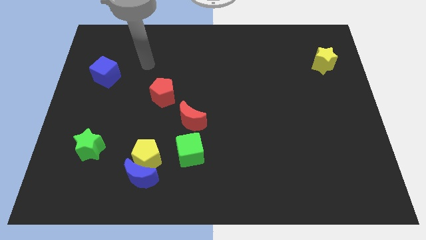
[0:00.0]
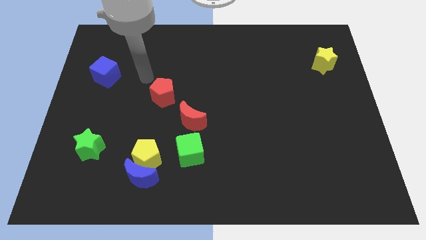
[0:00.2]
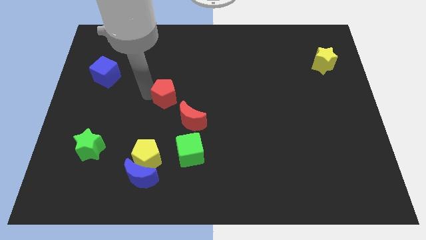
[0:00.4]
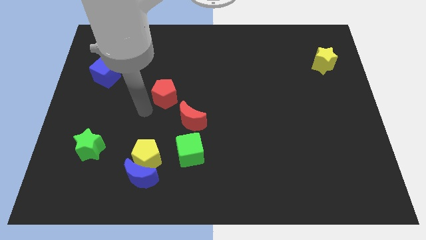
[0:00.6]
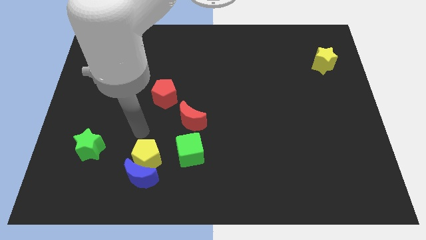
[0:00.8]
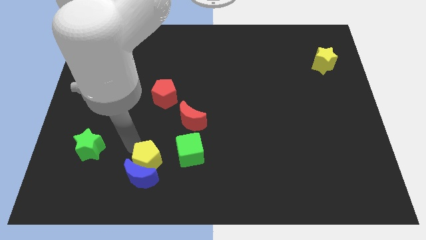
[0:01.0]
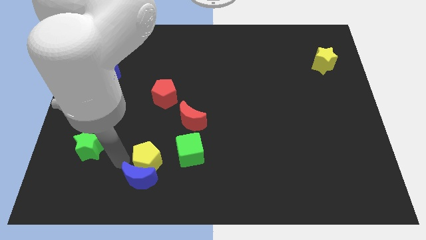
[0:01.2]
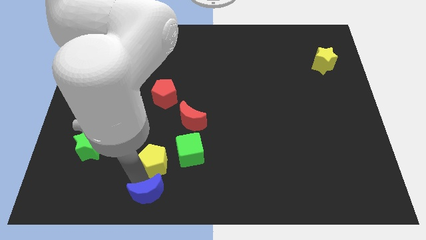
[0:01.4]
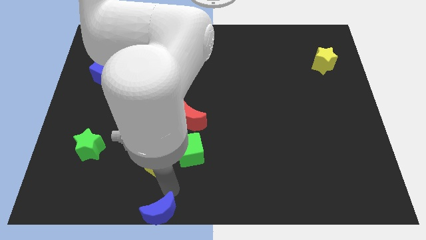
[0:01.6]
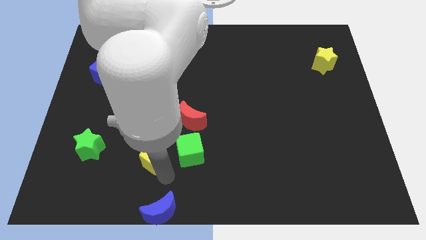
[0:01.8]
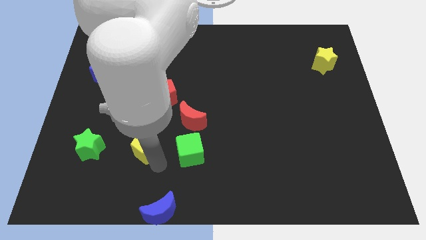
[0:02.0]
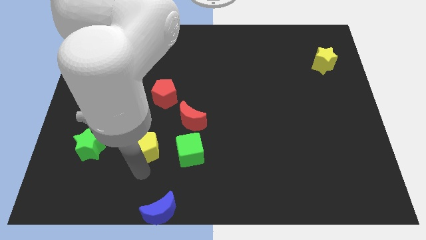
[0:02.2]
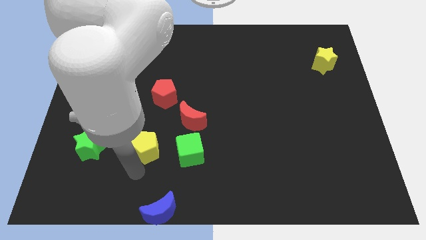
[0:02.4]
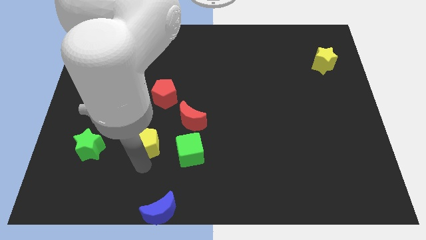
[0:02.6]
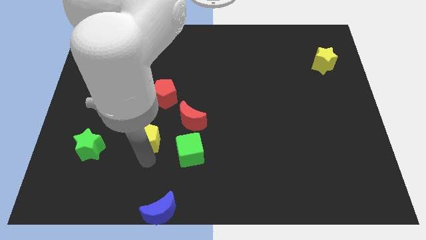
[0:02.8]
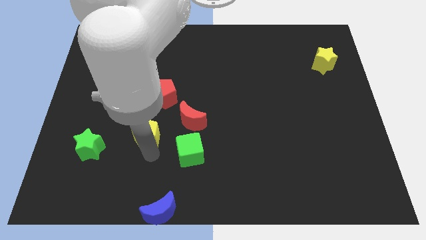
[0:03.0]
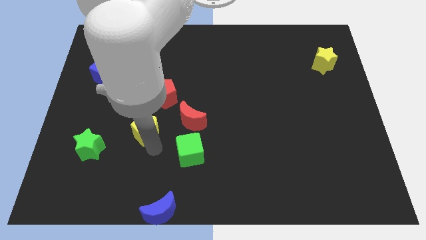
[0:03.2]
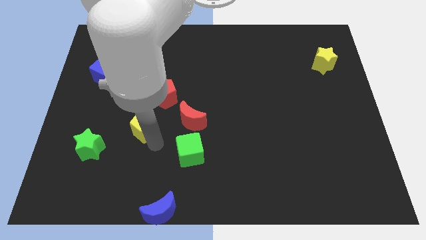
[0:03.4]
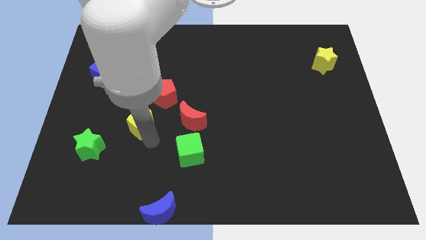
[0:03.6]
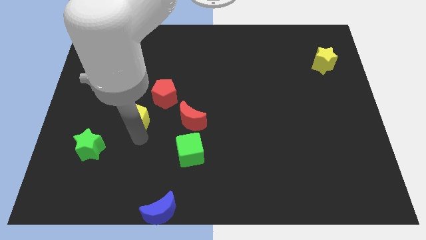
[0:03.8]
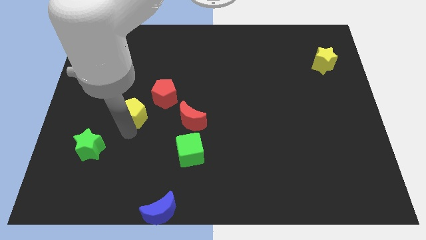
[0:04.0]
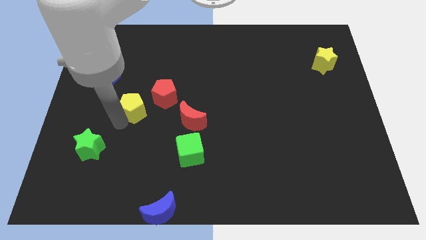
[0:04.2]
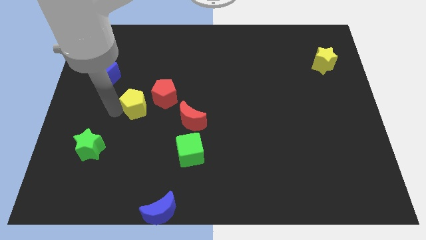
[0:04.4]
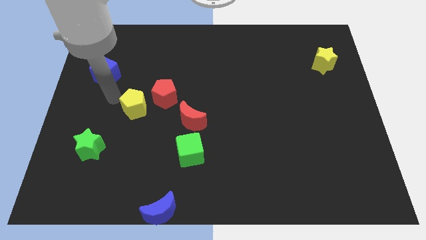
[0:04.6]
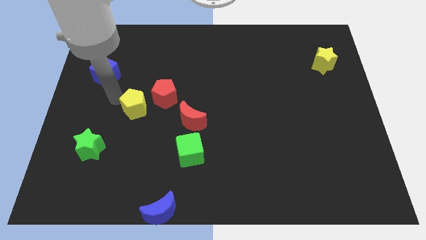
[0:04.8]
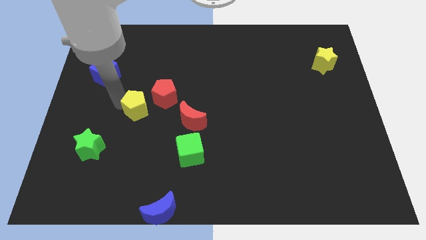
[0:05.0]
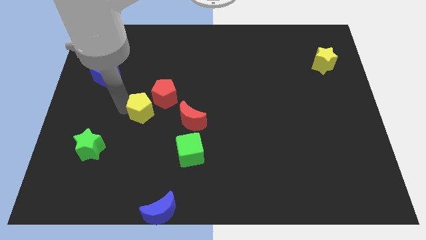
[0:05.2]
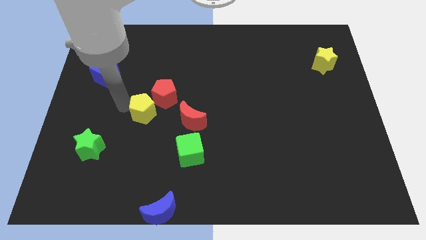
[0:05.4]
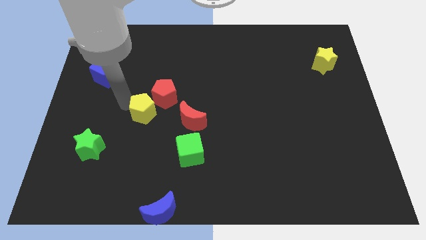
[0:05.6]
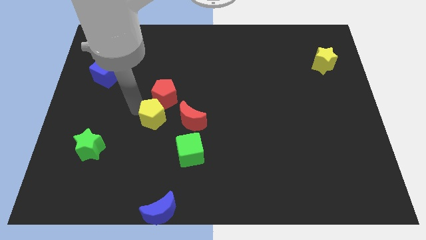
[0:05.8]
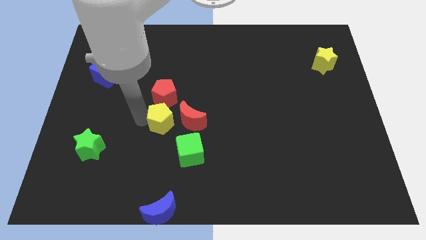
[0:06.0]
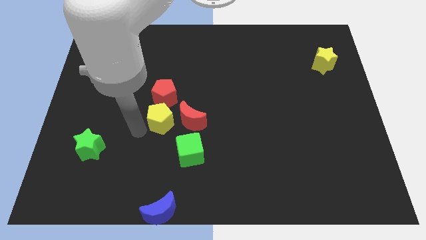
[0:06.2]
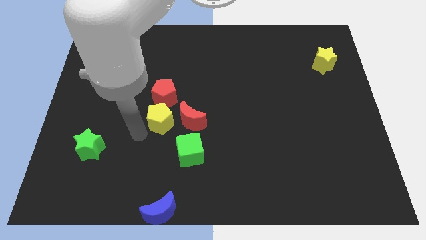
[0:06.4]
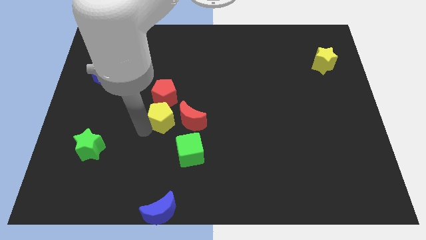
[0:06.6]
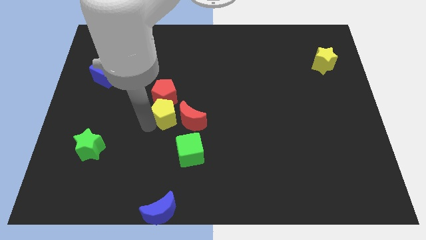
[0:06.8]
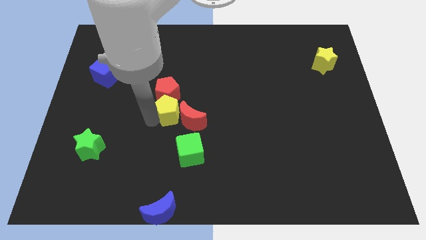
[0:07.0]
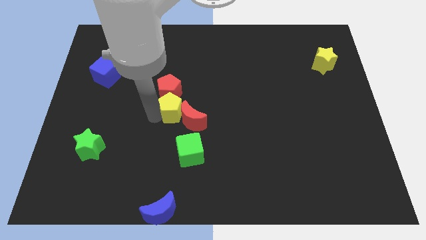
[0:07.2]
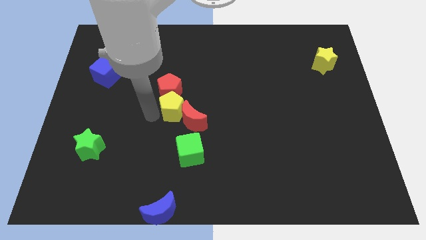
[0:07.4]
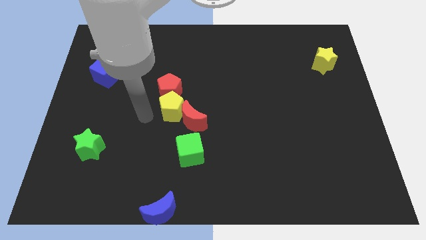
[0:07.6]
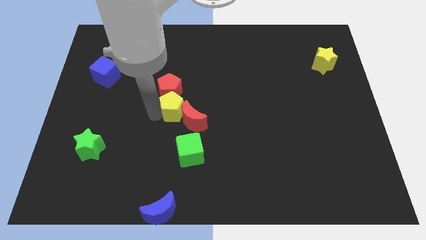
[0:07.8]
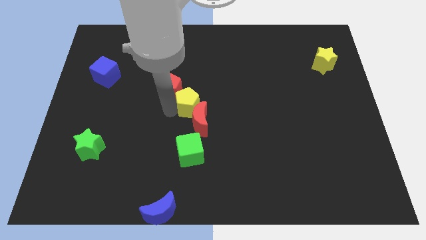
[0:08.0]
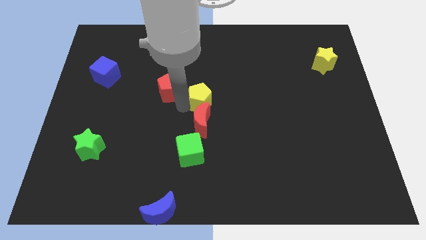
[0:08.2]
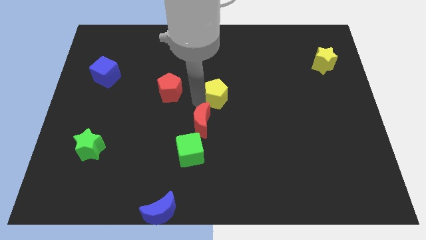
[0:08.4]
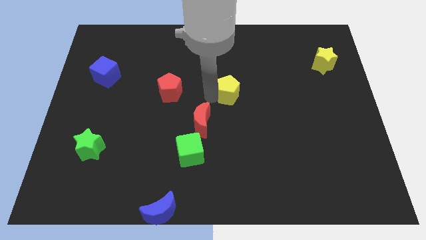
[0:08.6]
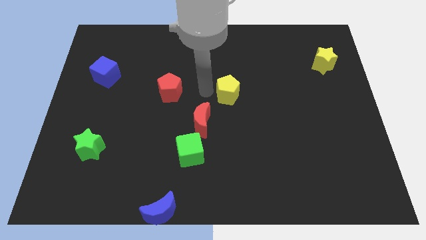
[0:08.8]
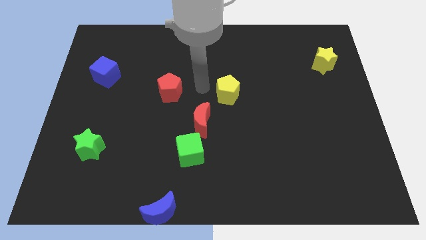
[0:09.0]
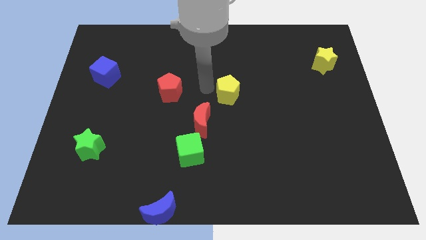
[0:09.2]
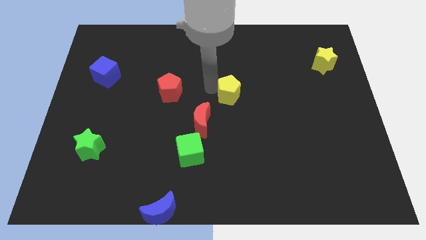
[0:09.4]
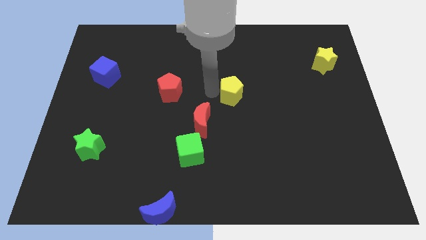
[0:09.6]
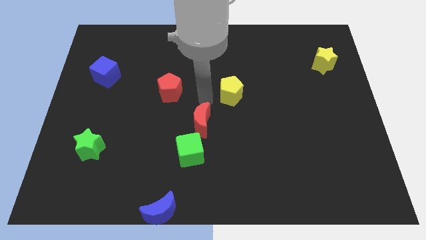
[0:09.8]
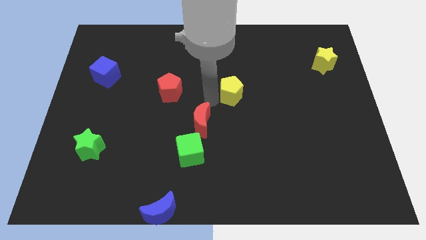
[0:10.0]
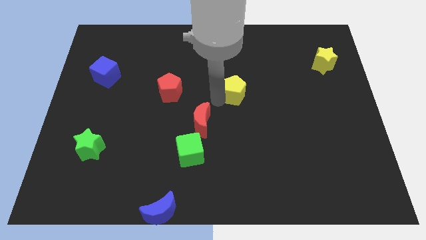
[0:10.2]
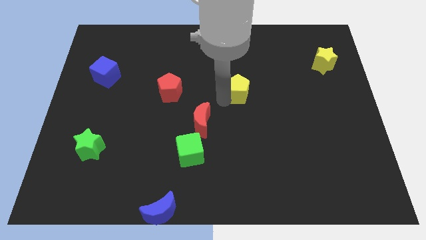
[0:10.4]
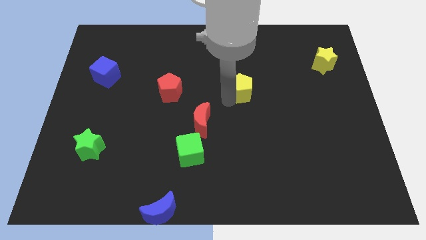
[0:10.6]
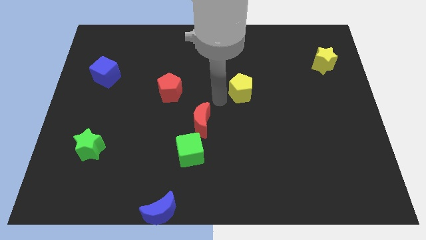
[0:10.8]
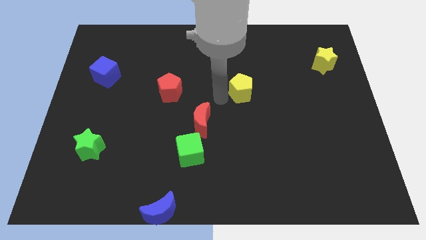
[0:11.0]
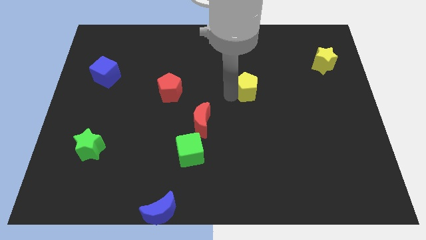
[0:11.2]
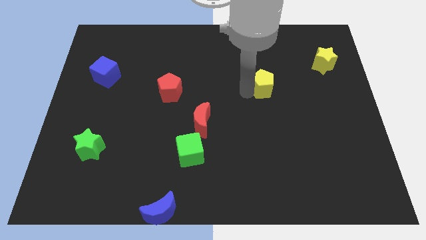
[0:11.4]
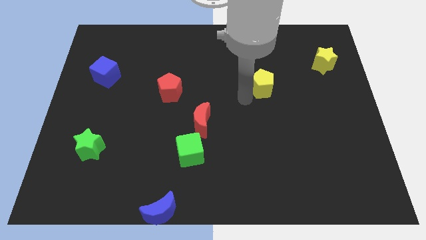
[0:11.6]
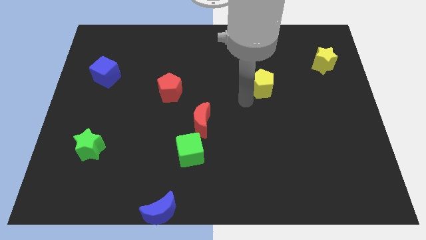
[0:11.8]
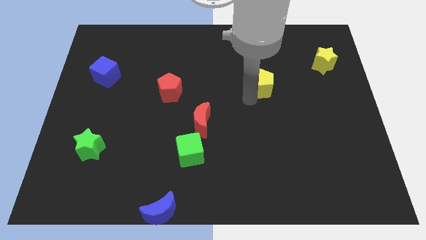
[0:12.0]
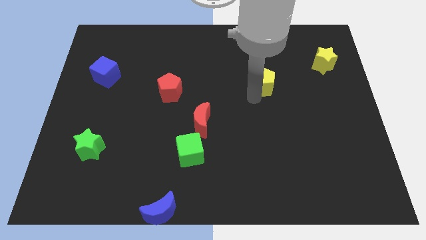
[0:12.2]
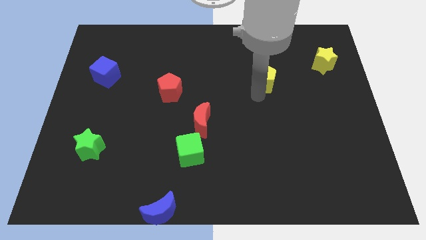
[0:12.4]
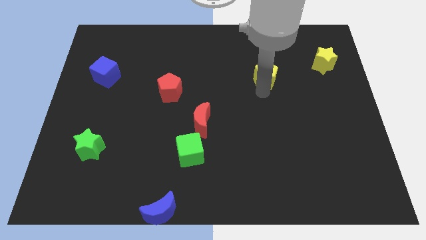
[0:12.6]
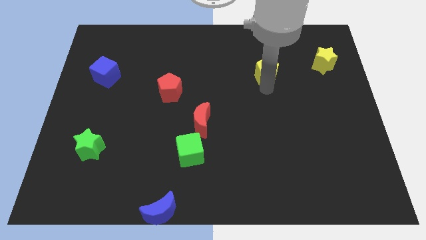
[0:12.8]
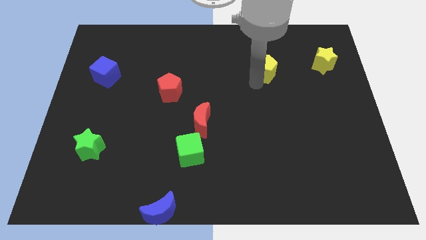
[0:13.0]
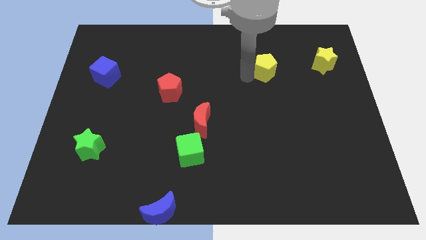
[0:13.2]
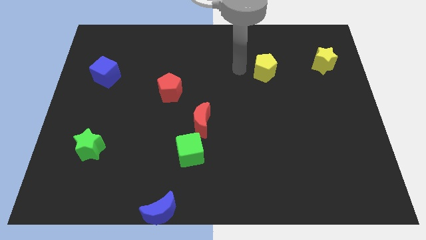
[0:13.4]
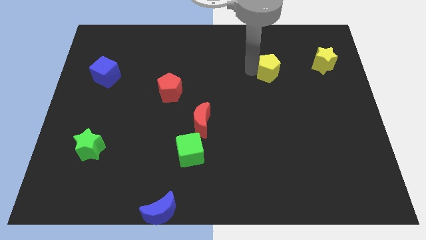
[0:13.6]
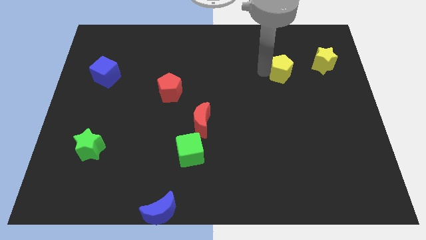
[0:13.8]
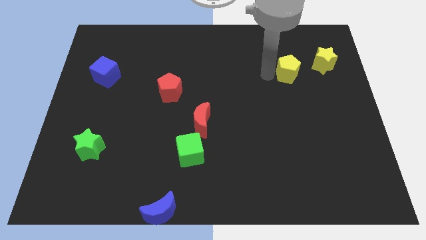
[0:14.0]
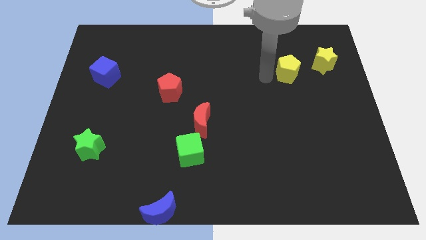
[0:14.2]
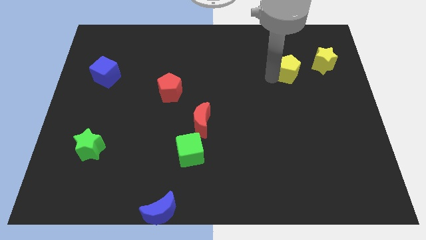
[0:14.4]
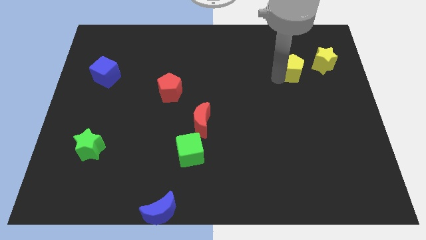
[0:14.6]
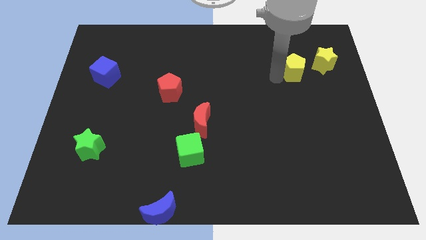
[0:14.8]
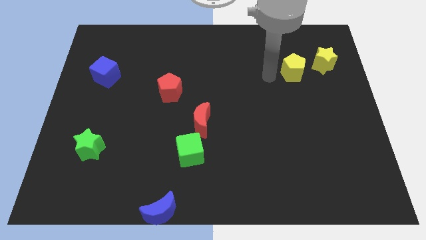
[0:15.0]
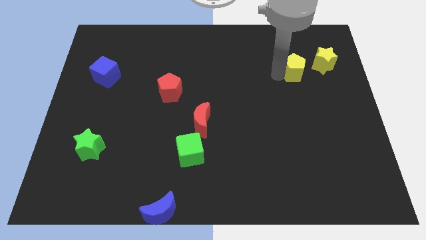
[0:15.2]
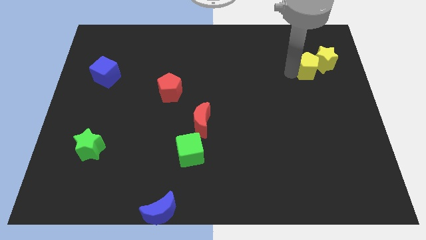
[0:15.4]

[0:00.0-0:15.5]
move the yellow pentagon to the yellow star
